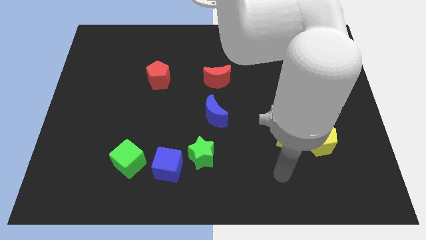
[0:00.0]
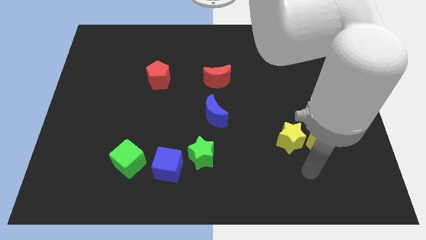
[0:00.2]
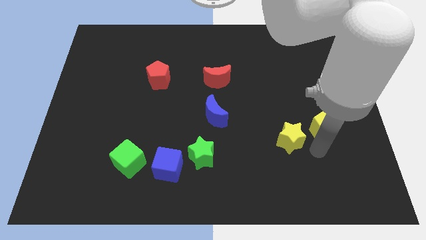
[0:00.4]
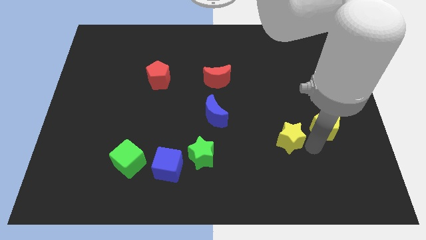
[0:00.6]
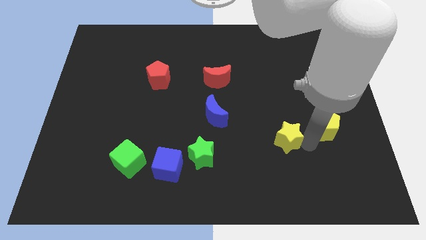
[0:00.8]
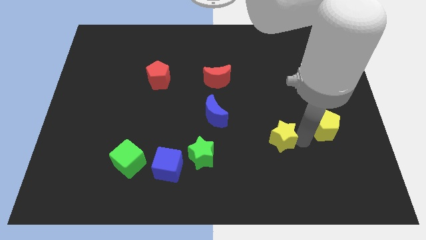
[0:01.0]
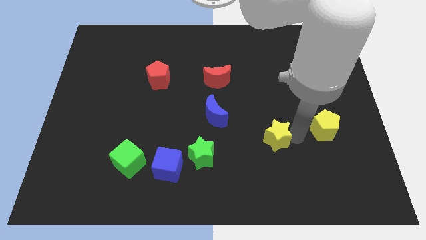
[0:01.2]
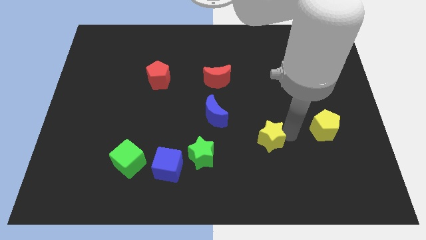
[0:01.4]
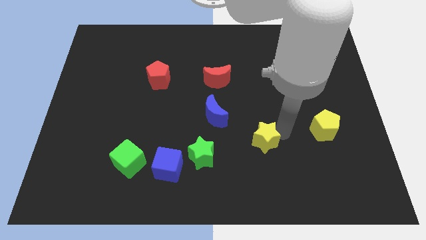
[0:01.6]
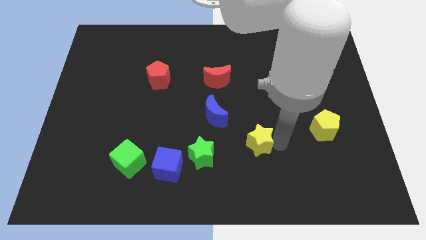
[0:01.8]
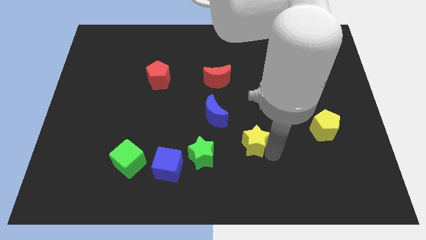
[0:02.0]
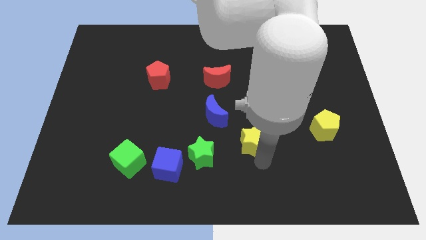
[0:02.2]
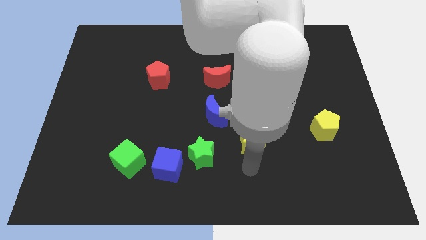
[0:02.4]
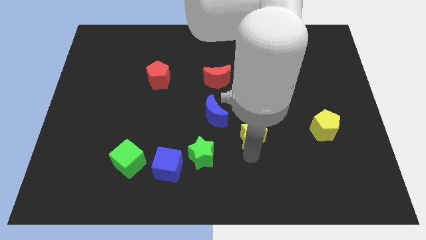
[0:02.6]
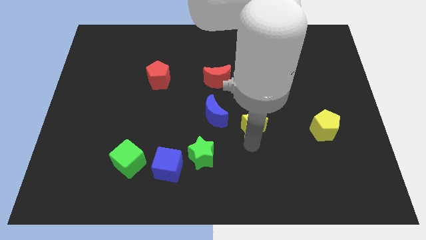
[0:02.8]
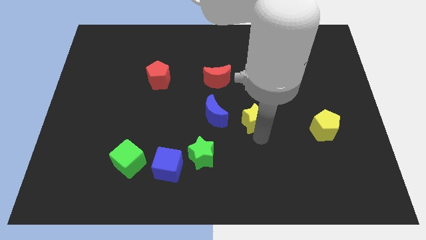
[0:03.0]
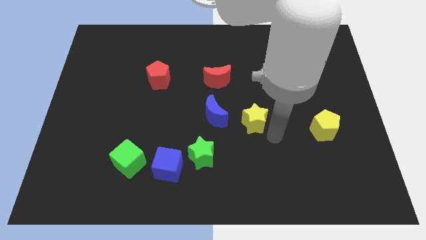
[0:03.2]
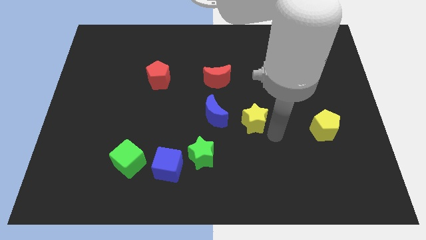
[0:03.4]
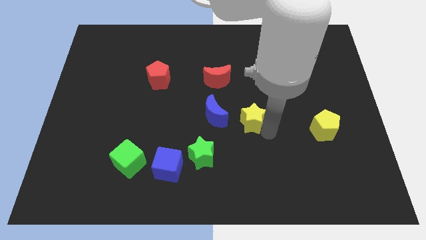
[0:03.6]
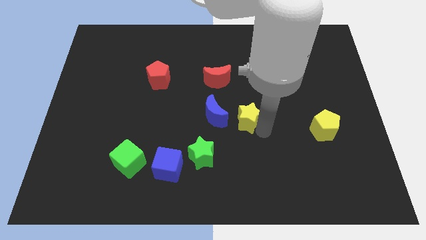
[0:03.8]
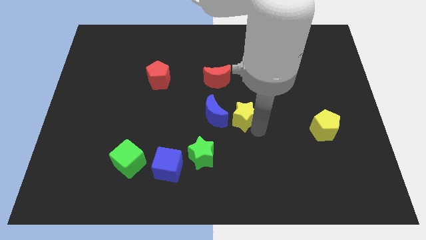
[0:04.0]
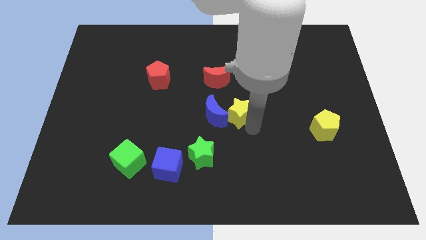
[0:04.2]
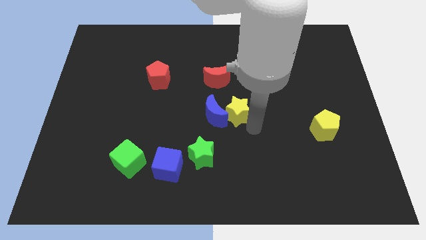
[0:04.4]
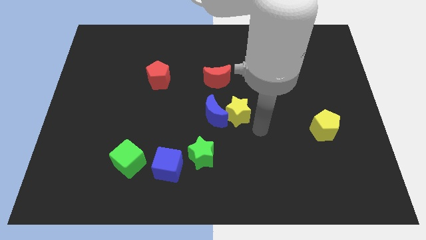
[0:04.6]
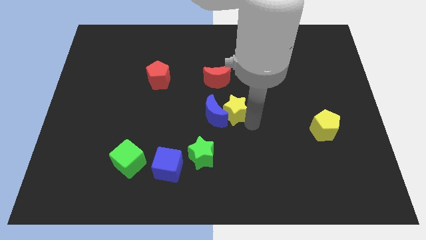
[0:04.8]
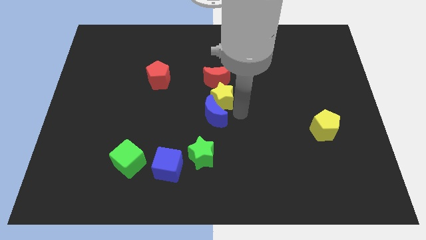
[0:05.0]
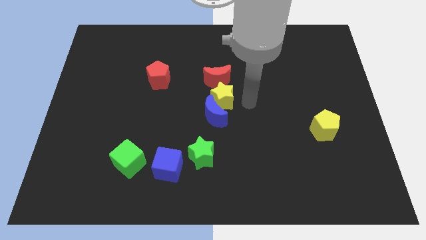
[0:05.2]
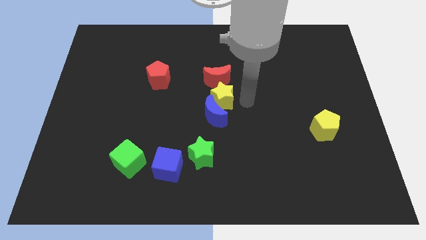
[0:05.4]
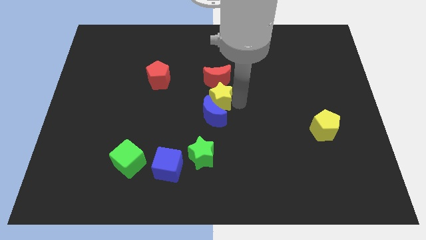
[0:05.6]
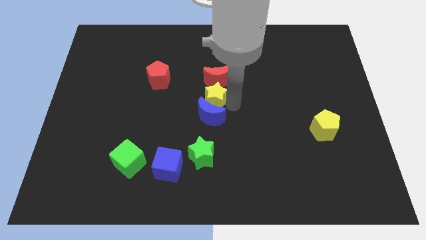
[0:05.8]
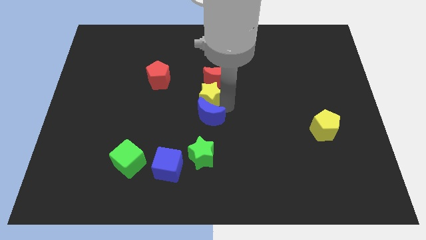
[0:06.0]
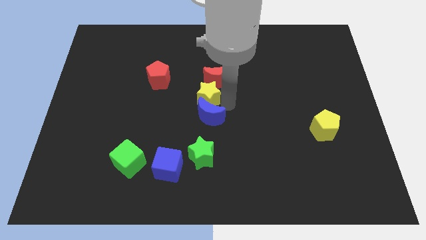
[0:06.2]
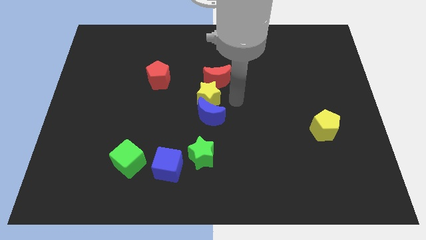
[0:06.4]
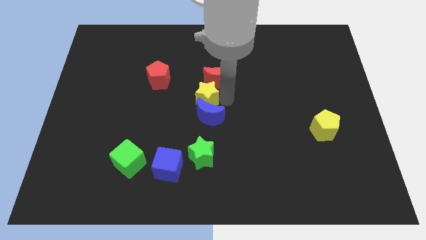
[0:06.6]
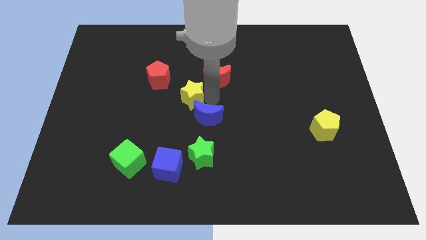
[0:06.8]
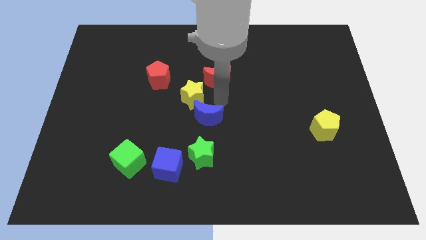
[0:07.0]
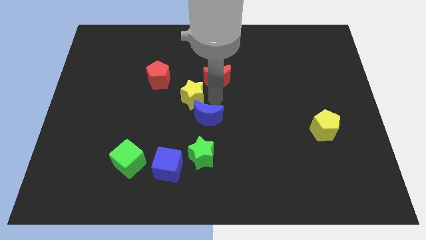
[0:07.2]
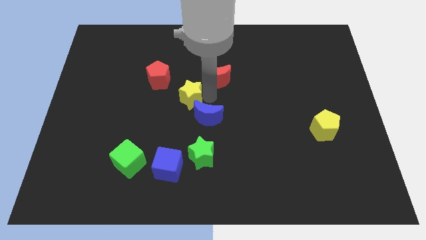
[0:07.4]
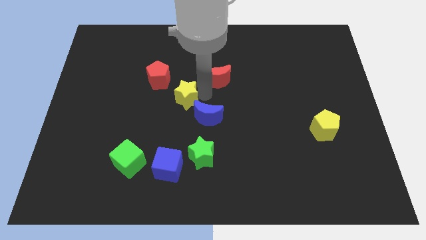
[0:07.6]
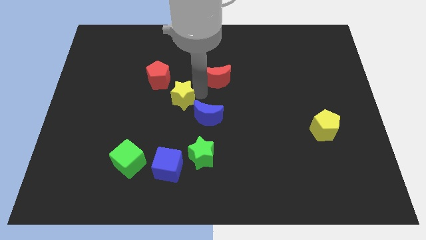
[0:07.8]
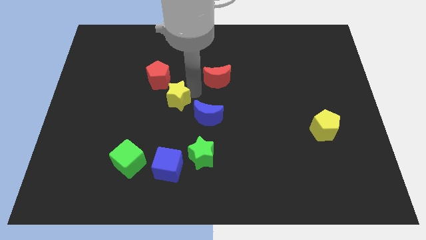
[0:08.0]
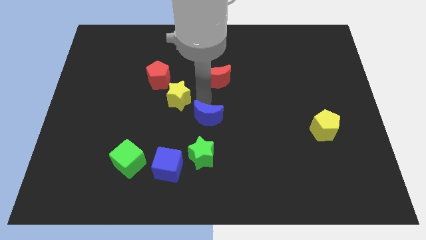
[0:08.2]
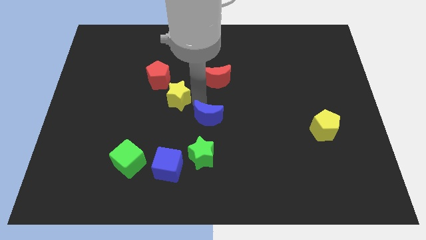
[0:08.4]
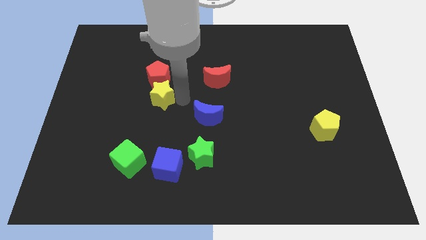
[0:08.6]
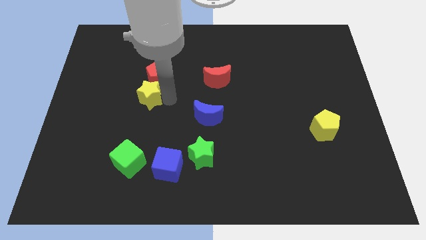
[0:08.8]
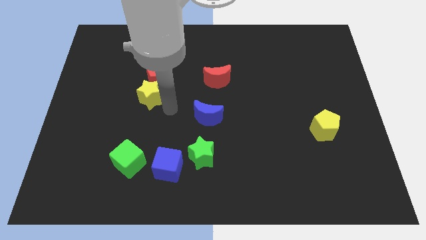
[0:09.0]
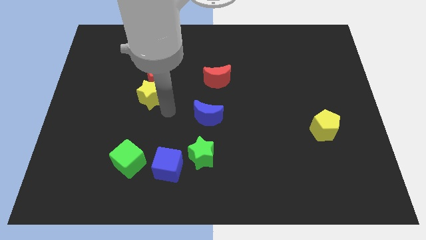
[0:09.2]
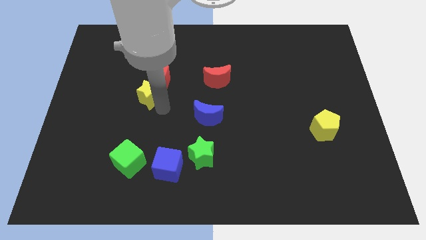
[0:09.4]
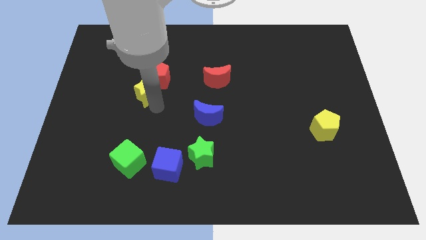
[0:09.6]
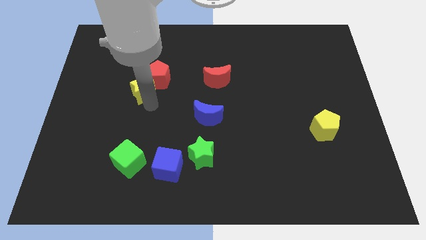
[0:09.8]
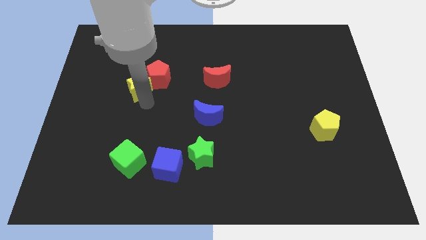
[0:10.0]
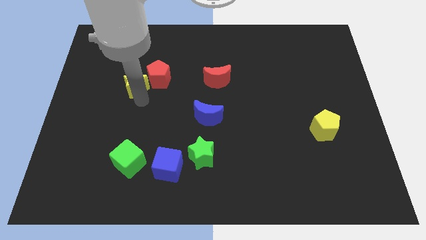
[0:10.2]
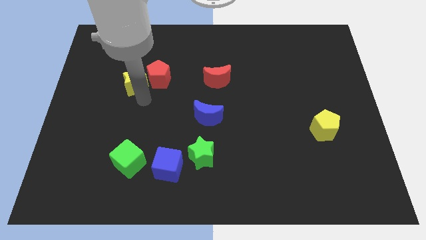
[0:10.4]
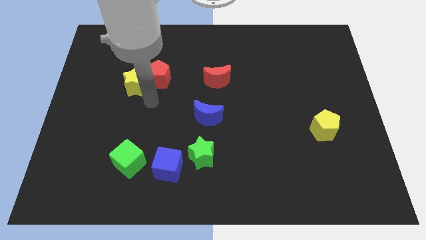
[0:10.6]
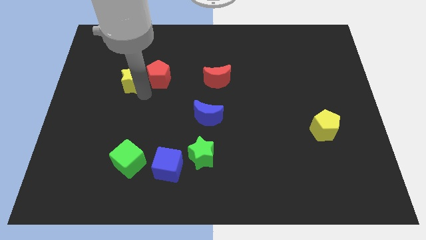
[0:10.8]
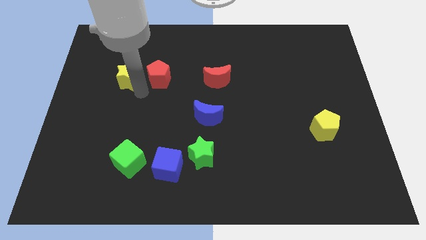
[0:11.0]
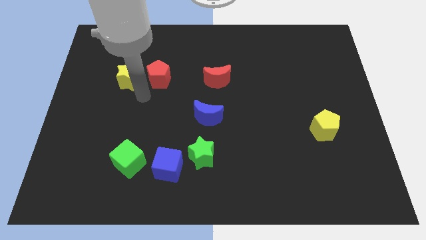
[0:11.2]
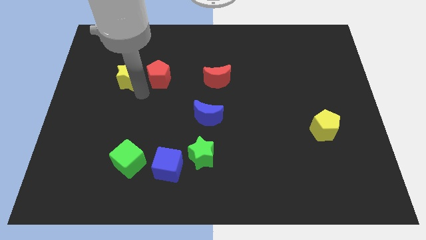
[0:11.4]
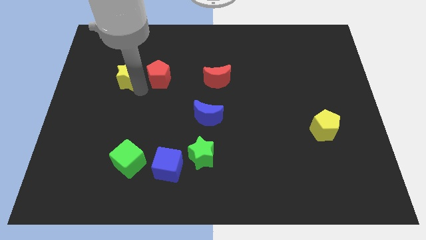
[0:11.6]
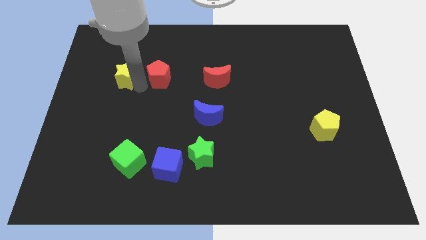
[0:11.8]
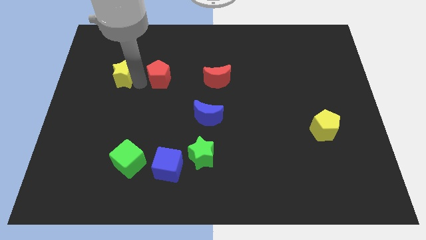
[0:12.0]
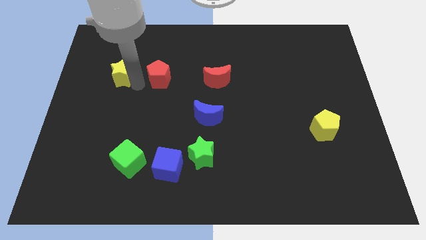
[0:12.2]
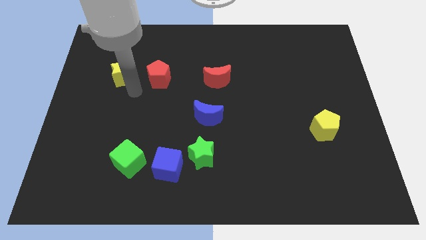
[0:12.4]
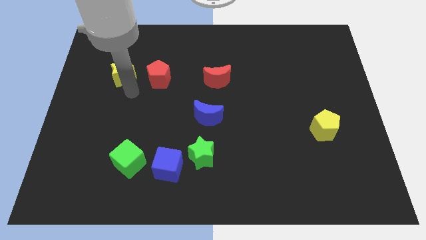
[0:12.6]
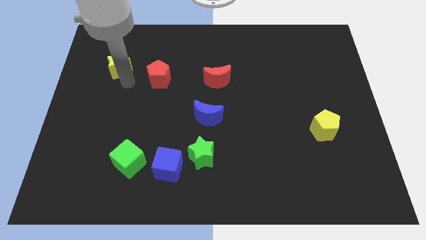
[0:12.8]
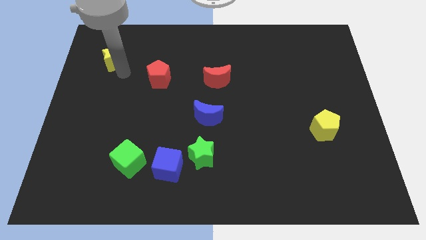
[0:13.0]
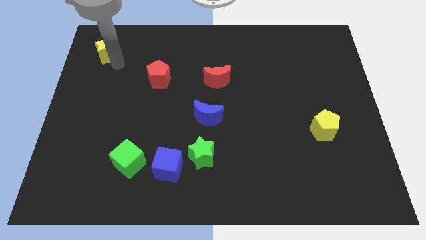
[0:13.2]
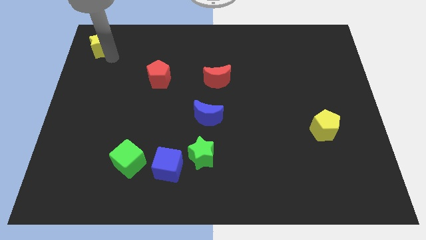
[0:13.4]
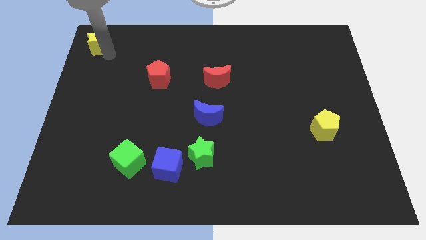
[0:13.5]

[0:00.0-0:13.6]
push the yellow star to the top left corner
